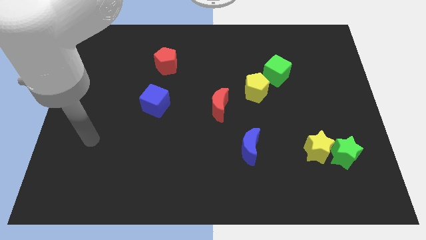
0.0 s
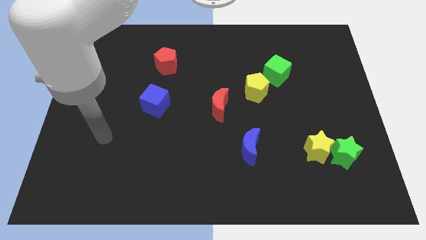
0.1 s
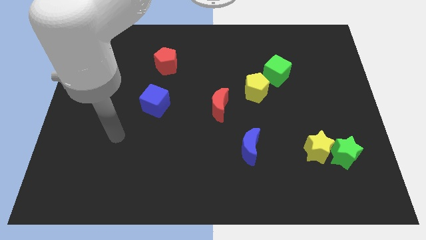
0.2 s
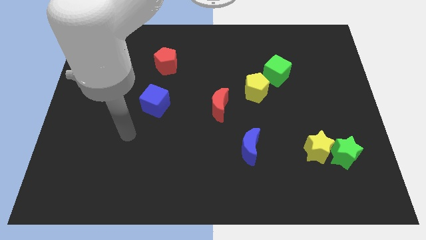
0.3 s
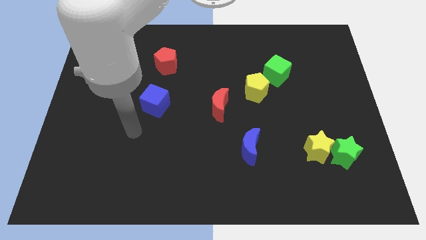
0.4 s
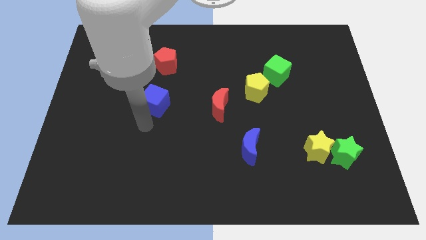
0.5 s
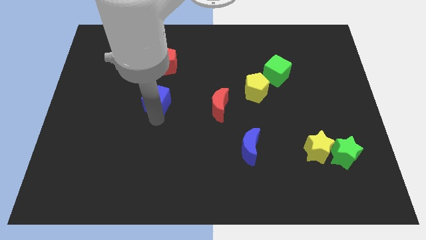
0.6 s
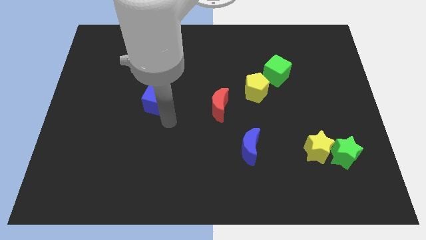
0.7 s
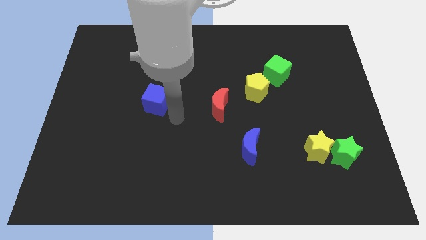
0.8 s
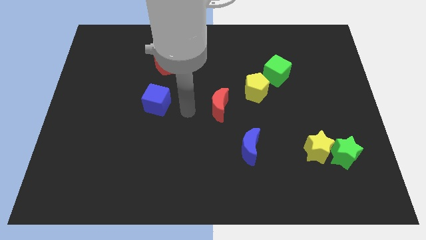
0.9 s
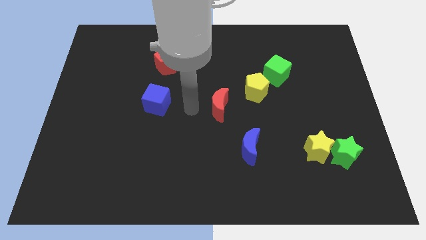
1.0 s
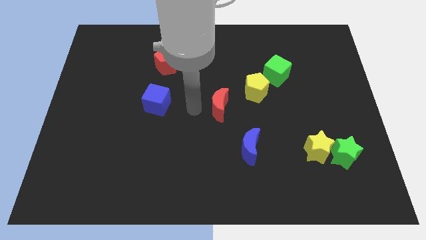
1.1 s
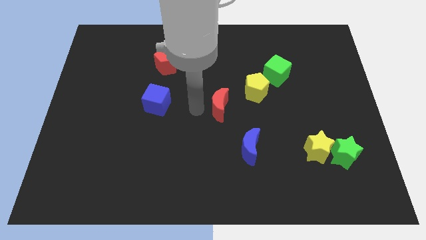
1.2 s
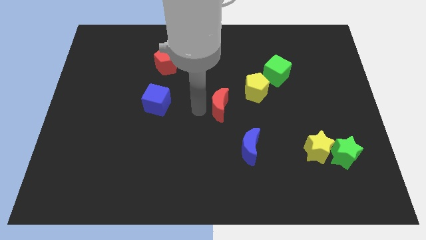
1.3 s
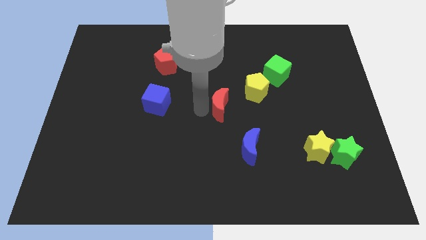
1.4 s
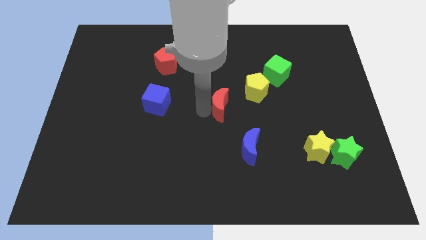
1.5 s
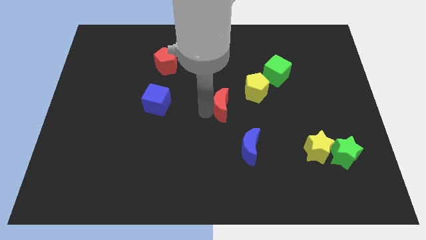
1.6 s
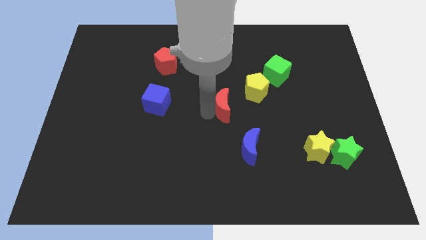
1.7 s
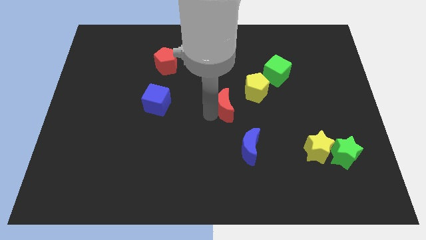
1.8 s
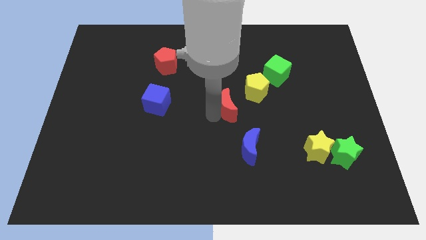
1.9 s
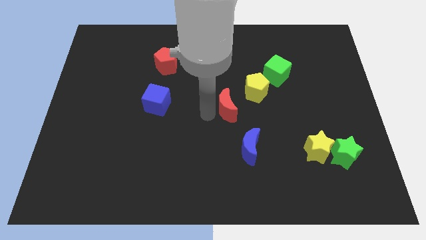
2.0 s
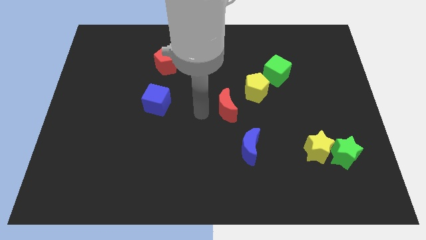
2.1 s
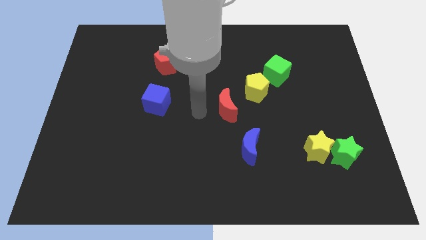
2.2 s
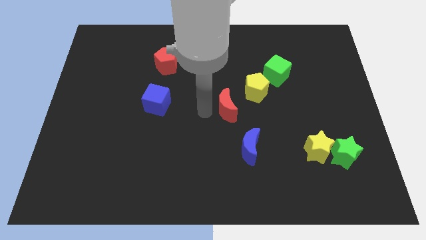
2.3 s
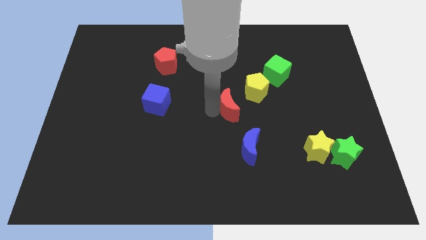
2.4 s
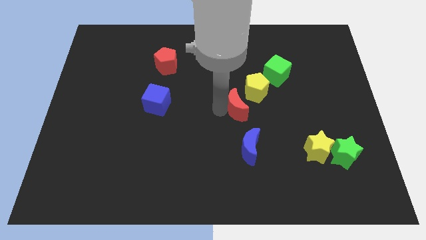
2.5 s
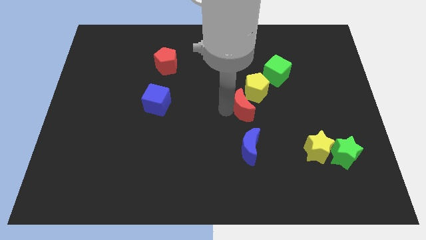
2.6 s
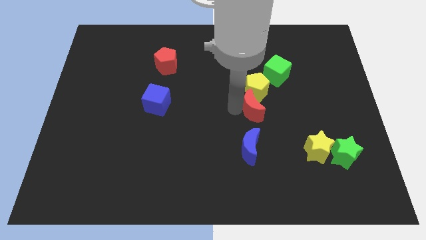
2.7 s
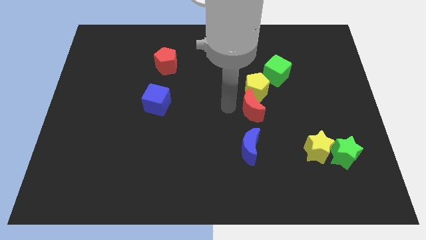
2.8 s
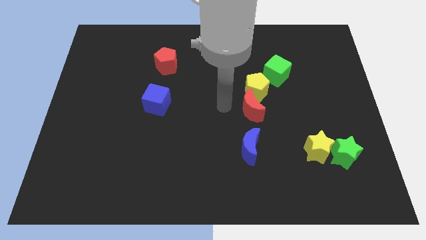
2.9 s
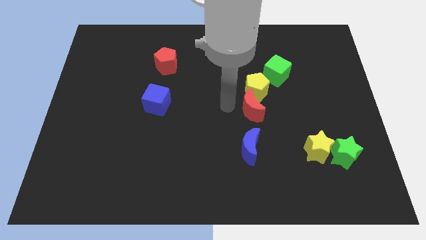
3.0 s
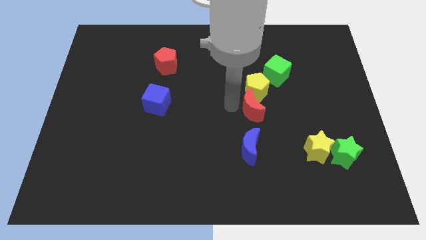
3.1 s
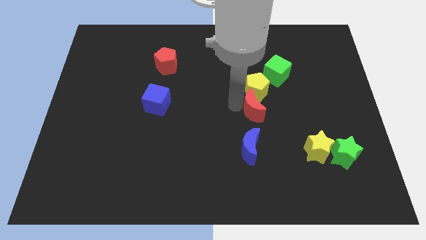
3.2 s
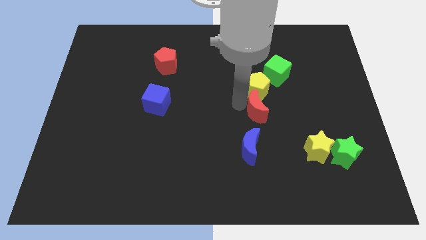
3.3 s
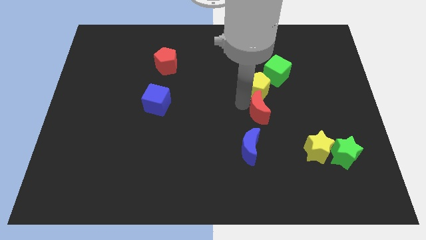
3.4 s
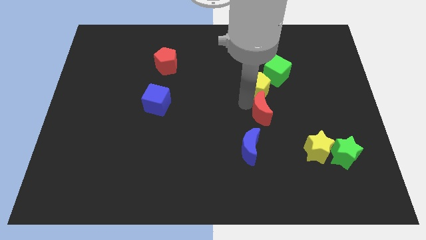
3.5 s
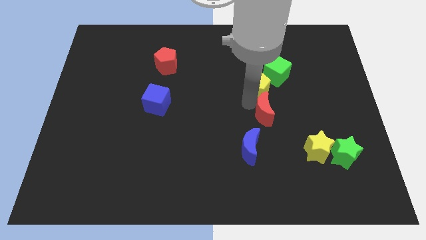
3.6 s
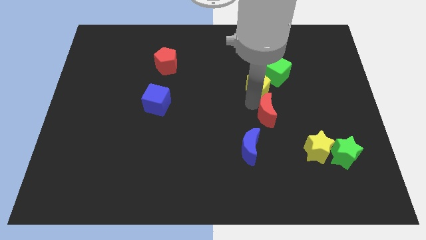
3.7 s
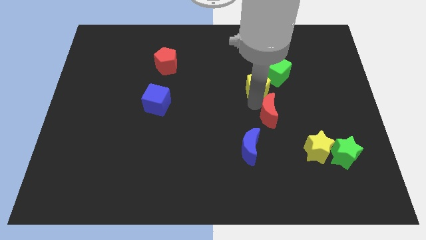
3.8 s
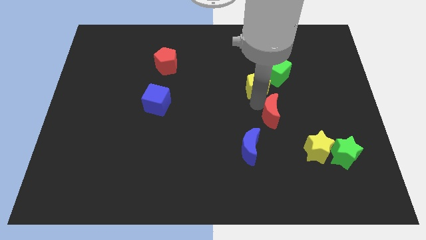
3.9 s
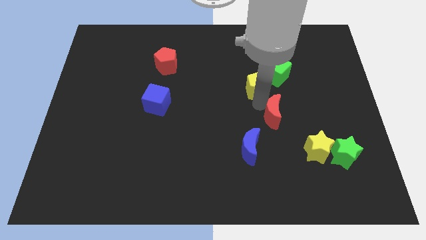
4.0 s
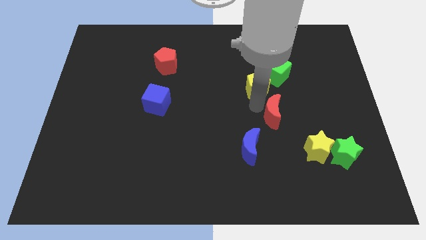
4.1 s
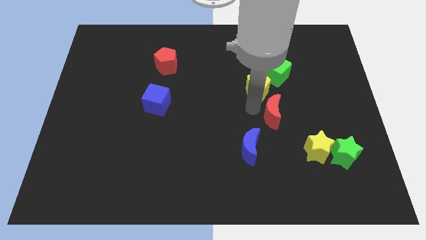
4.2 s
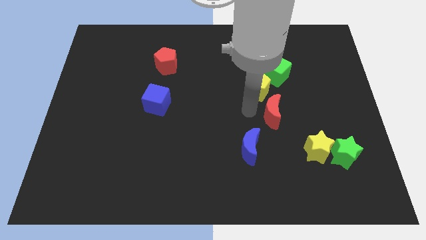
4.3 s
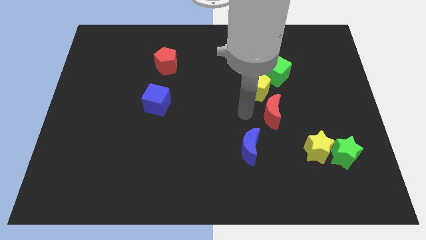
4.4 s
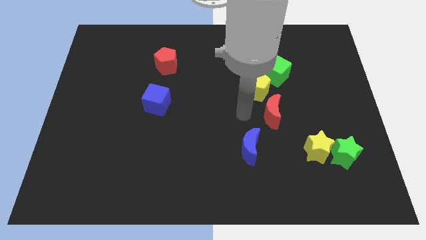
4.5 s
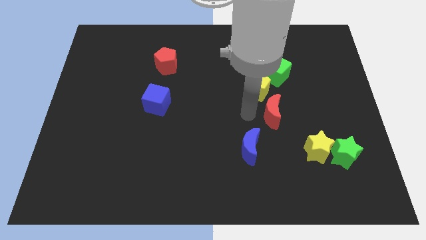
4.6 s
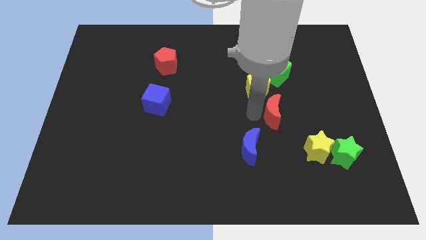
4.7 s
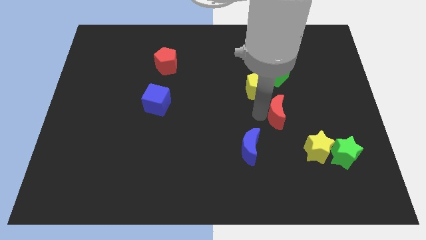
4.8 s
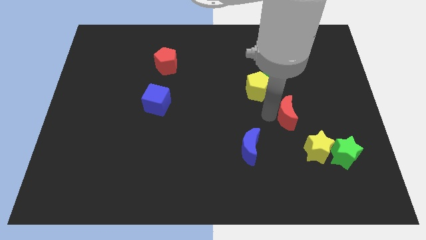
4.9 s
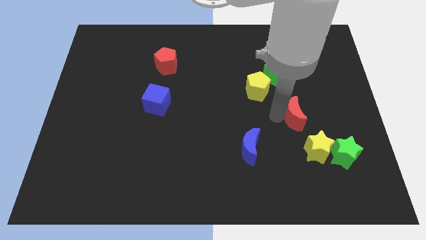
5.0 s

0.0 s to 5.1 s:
push the red moon to the top side of the yellow star

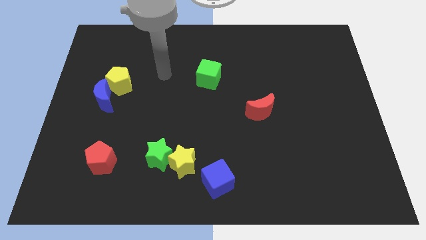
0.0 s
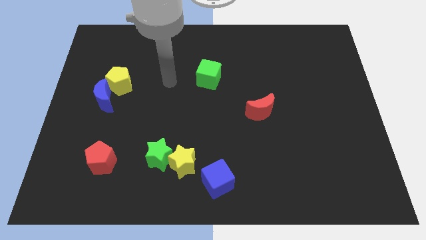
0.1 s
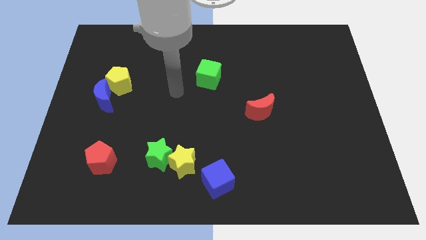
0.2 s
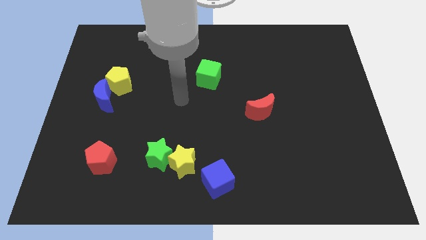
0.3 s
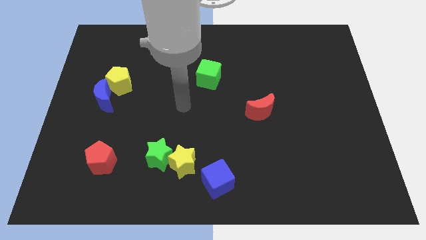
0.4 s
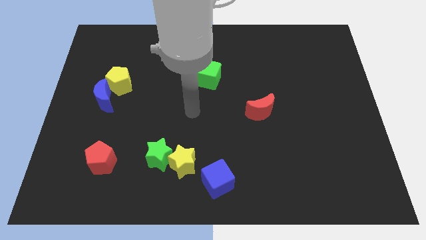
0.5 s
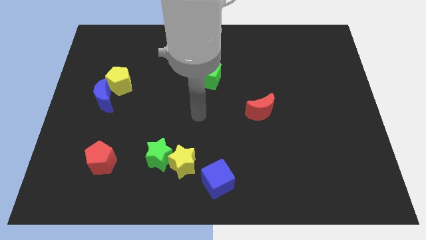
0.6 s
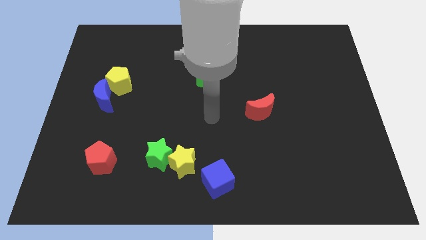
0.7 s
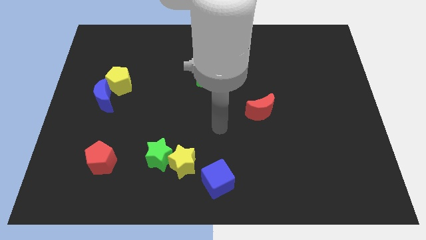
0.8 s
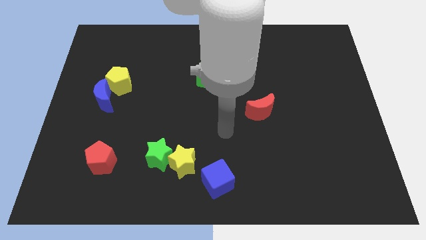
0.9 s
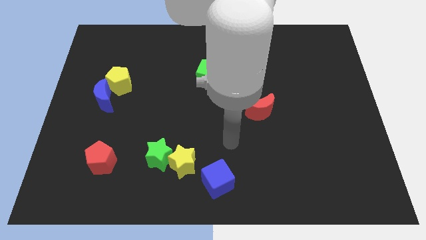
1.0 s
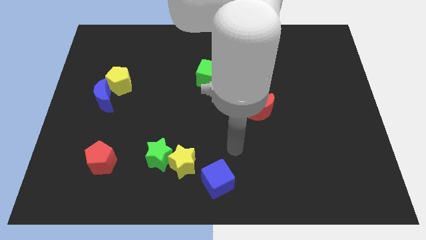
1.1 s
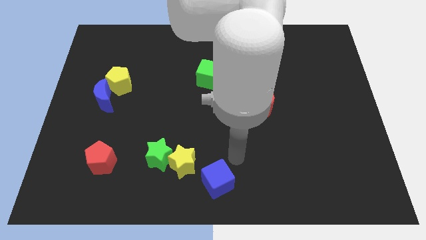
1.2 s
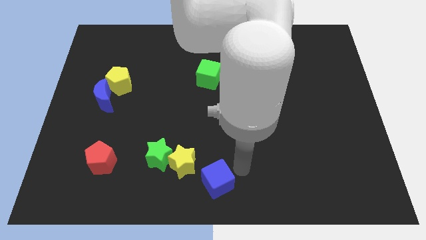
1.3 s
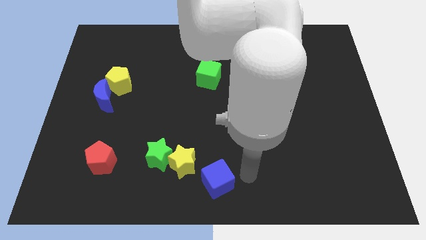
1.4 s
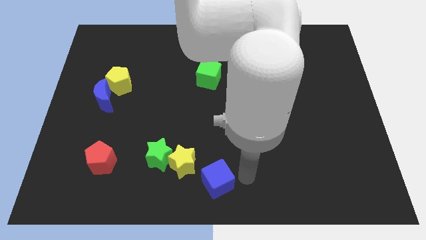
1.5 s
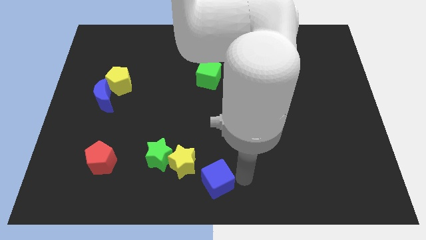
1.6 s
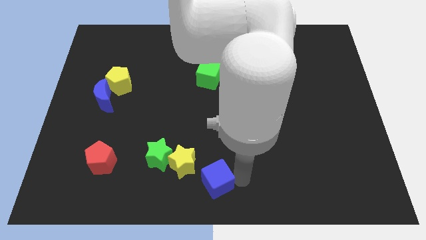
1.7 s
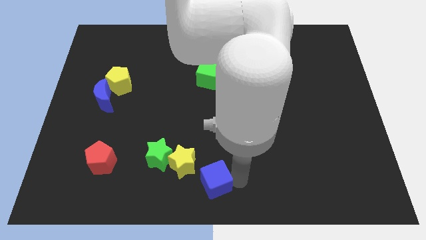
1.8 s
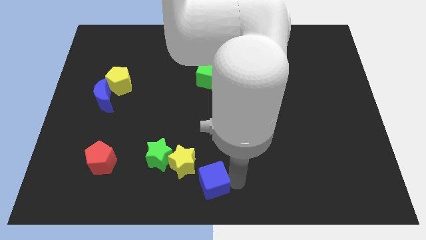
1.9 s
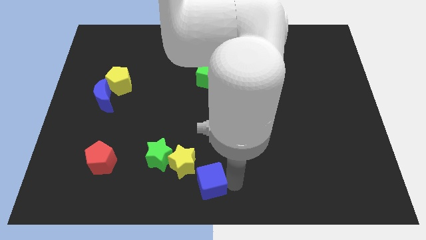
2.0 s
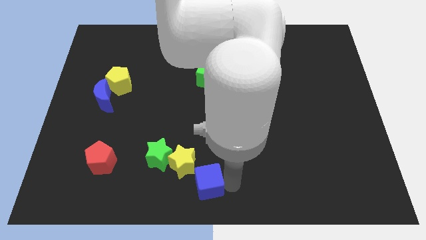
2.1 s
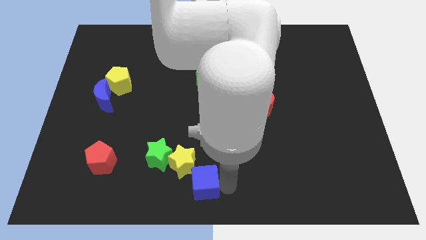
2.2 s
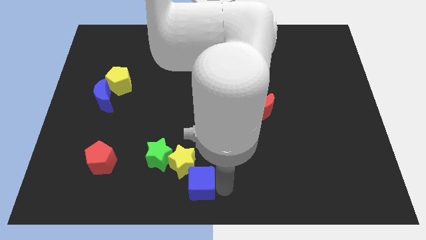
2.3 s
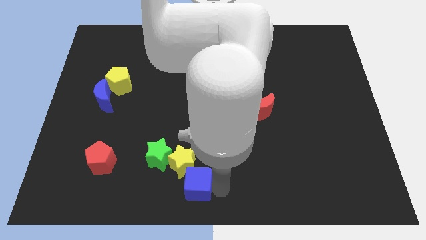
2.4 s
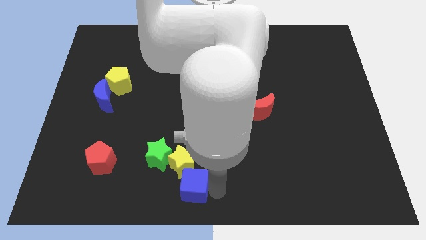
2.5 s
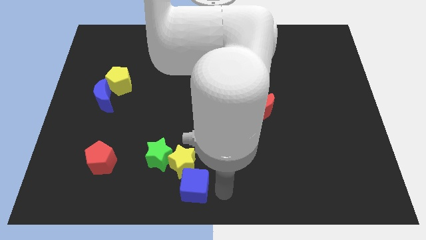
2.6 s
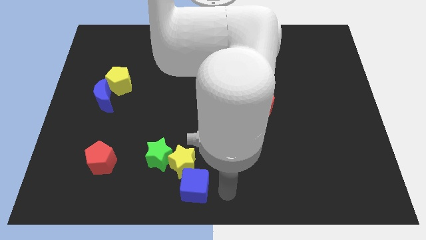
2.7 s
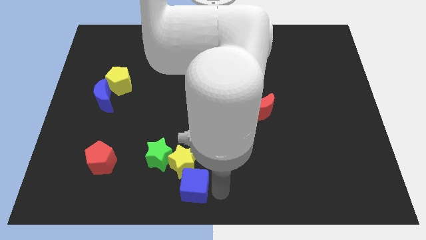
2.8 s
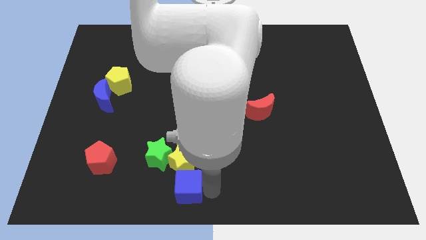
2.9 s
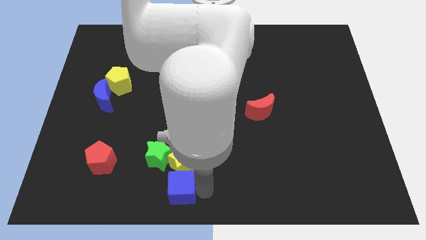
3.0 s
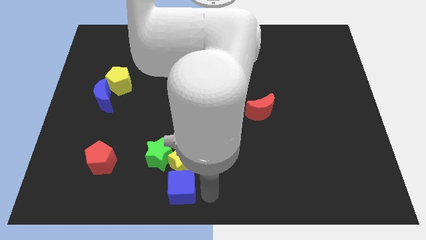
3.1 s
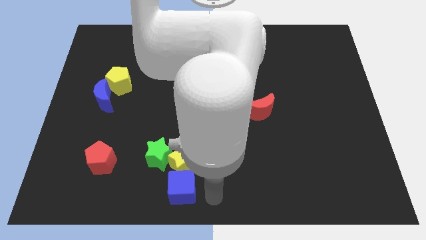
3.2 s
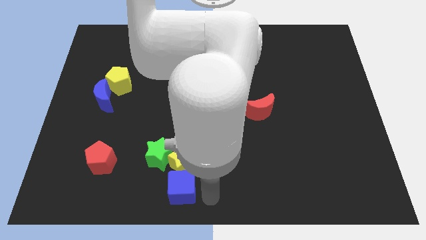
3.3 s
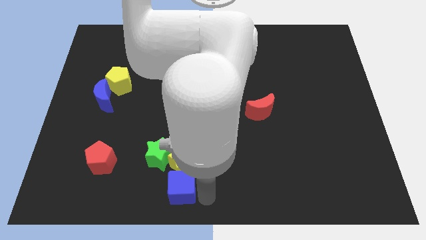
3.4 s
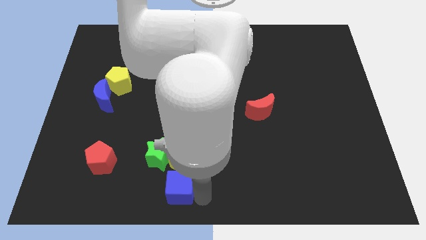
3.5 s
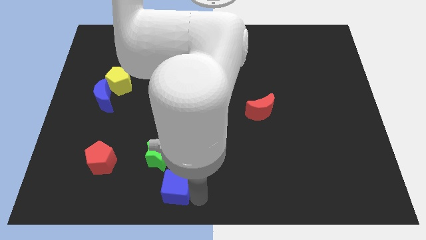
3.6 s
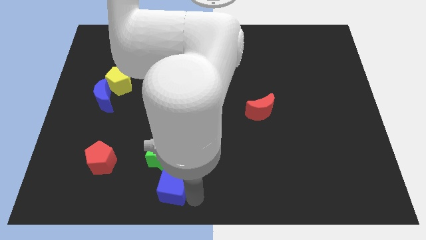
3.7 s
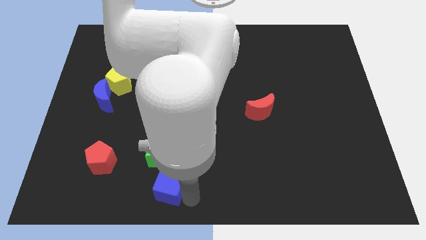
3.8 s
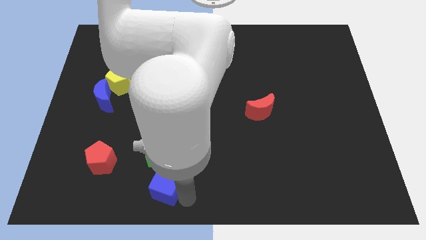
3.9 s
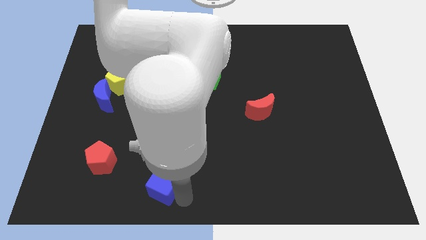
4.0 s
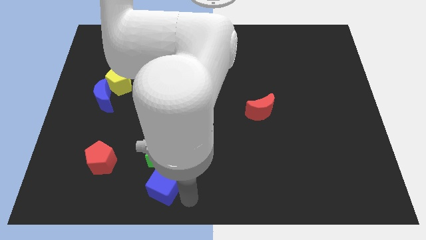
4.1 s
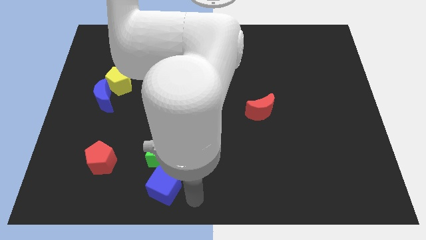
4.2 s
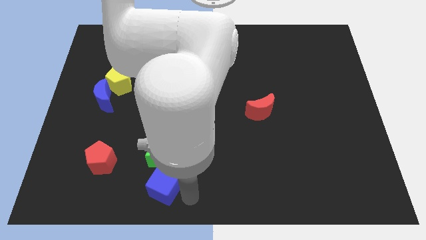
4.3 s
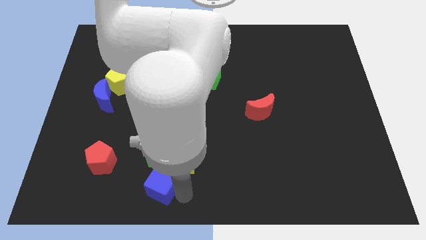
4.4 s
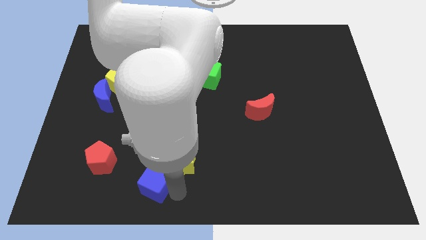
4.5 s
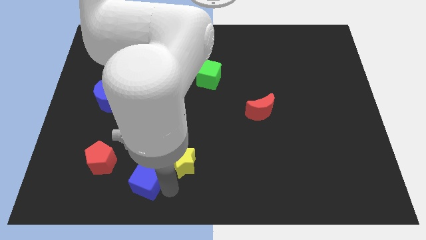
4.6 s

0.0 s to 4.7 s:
push the blue cube to the bottom right side of the red pentagon
